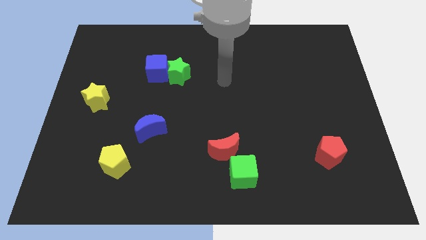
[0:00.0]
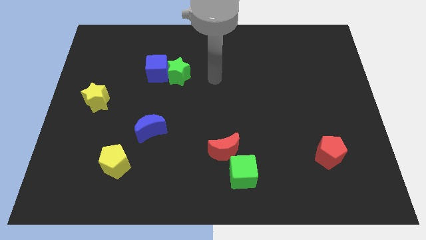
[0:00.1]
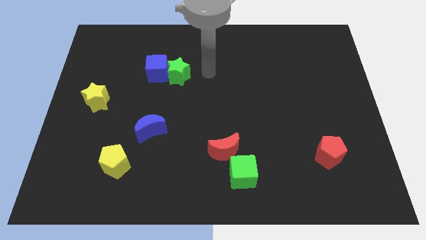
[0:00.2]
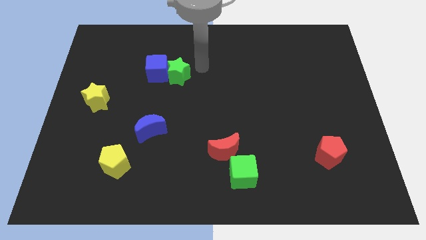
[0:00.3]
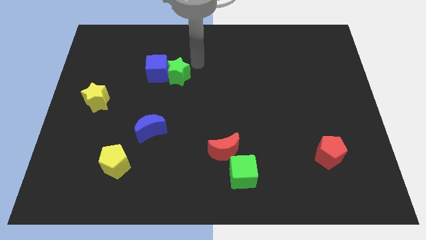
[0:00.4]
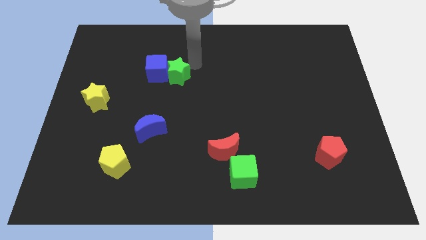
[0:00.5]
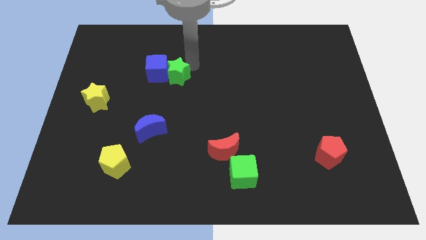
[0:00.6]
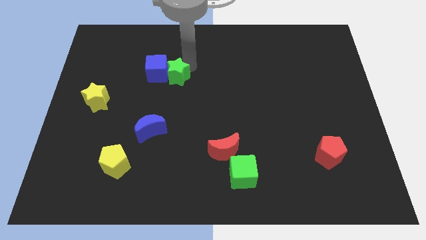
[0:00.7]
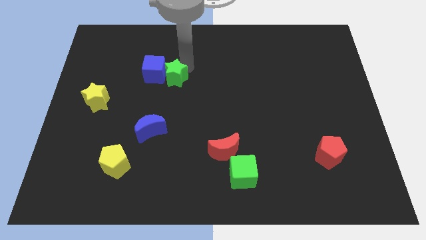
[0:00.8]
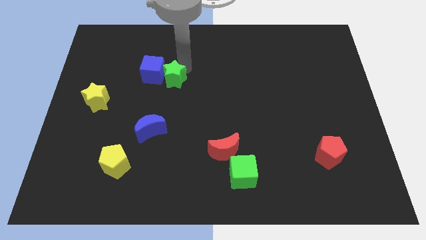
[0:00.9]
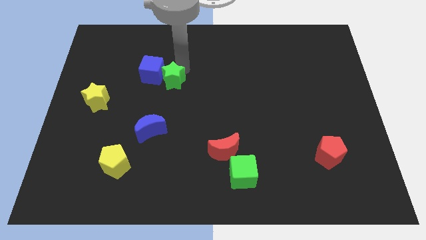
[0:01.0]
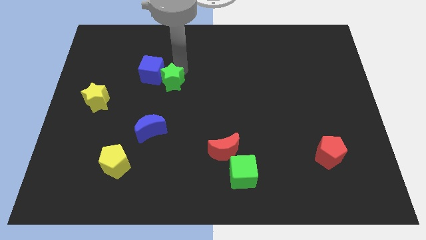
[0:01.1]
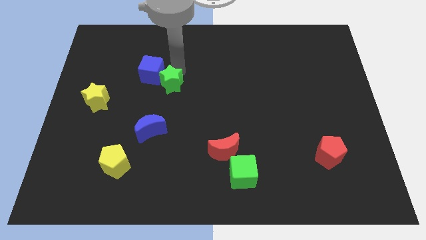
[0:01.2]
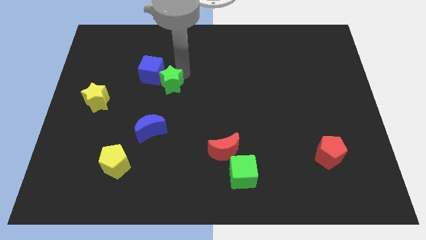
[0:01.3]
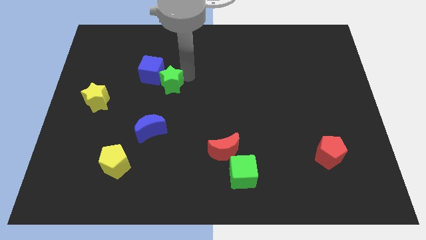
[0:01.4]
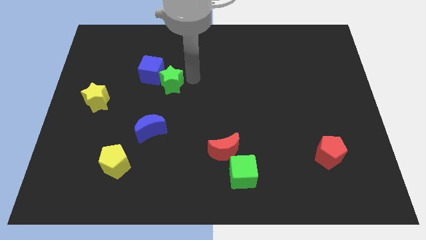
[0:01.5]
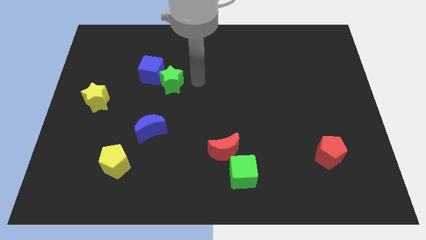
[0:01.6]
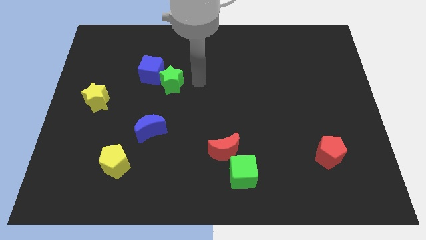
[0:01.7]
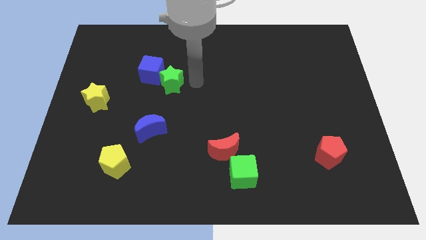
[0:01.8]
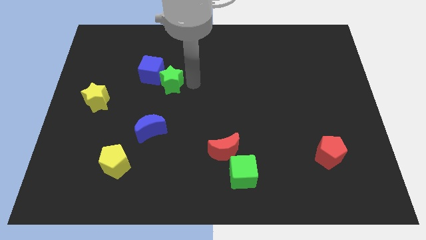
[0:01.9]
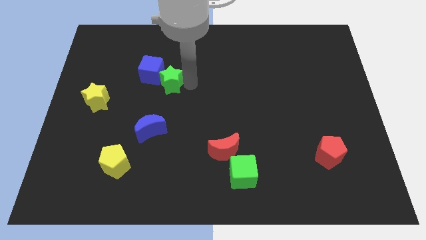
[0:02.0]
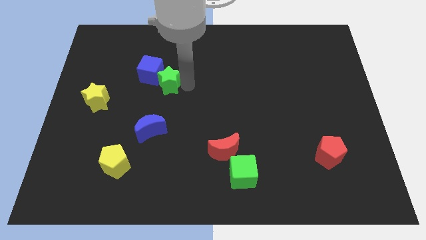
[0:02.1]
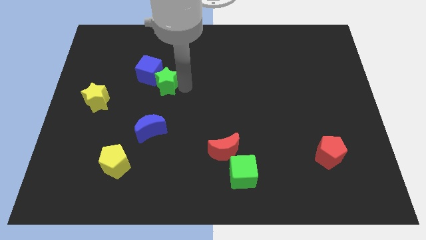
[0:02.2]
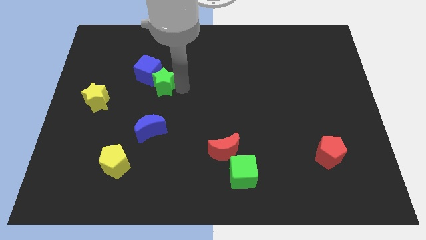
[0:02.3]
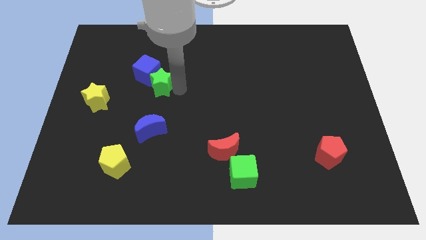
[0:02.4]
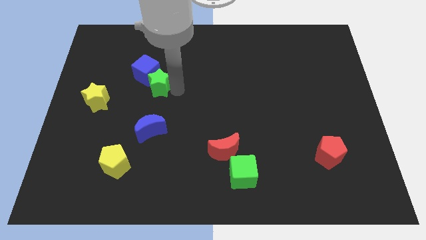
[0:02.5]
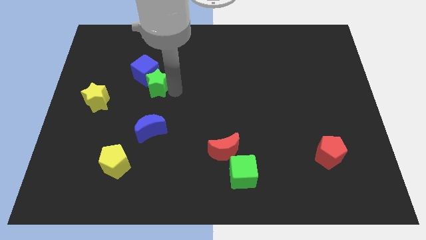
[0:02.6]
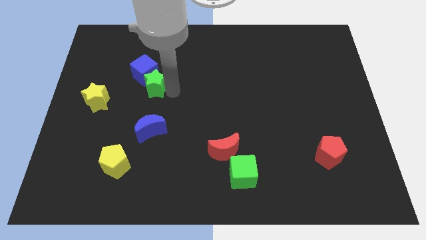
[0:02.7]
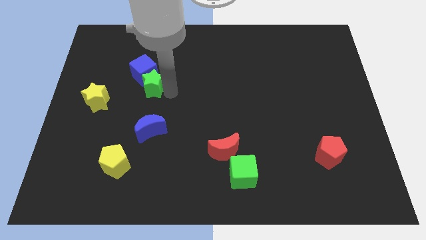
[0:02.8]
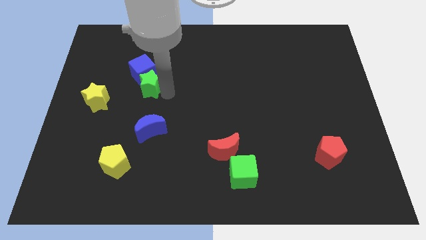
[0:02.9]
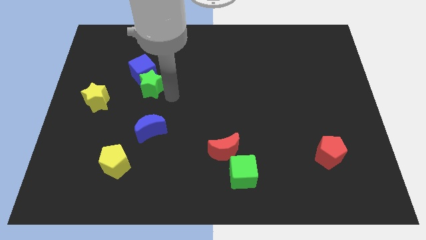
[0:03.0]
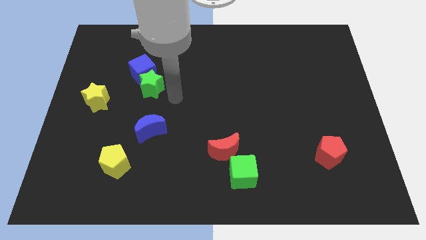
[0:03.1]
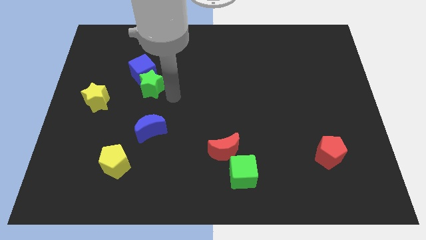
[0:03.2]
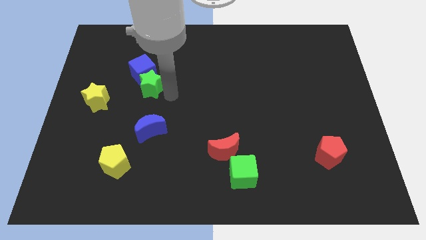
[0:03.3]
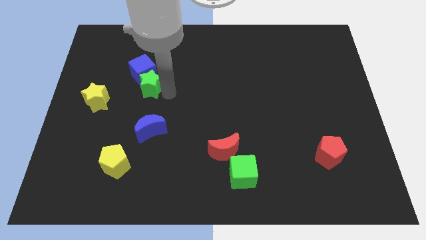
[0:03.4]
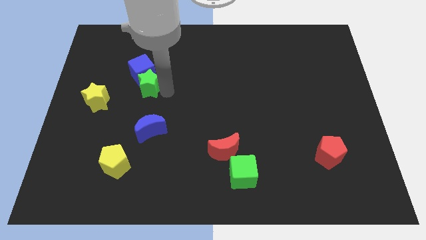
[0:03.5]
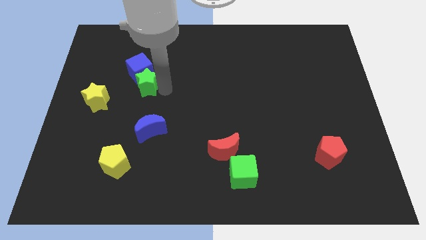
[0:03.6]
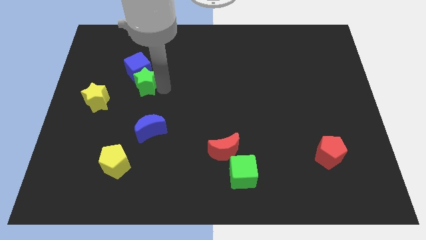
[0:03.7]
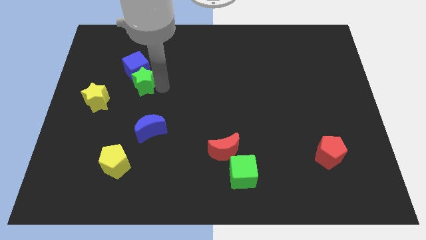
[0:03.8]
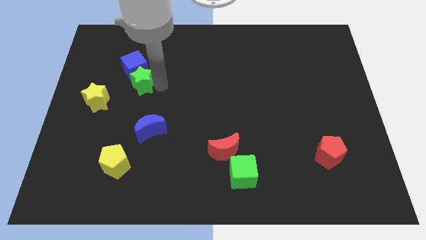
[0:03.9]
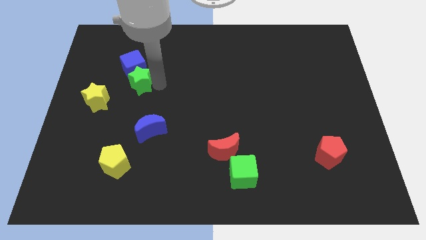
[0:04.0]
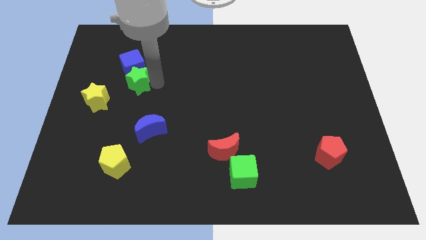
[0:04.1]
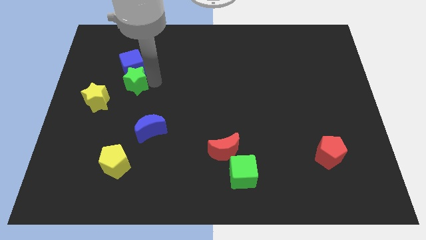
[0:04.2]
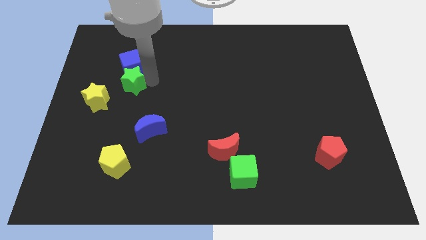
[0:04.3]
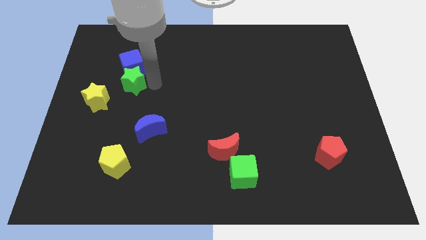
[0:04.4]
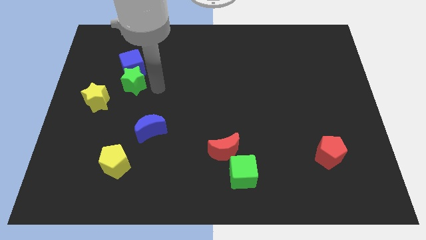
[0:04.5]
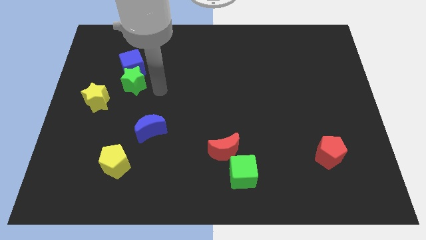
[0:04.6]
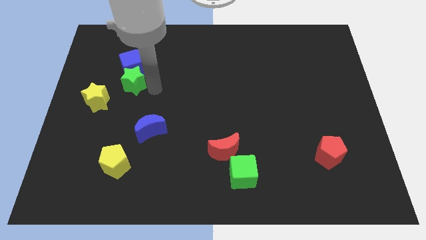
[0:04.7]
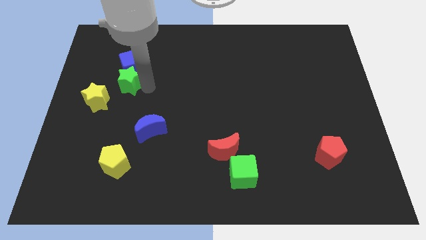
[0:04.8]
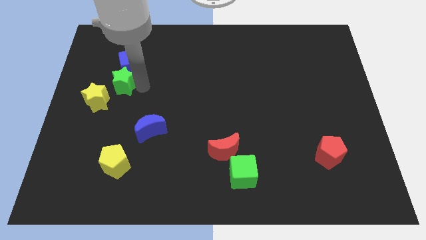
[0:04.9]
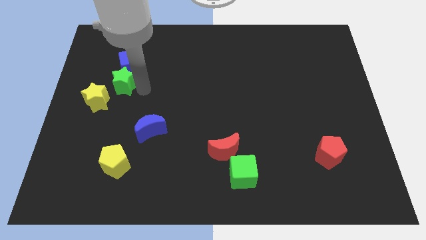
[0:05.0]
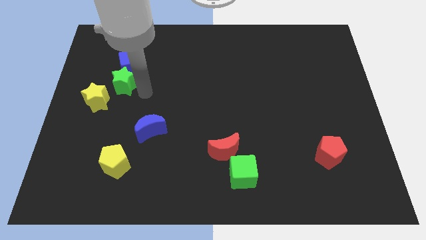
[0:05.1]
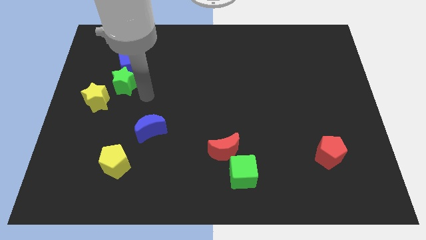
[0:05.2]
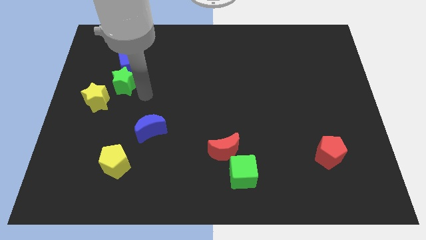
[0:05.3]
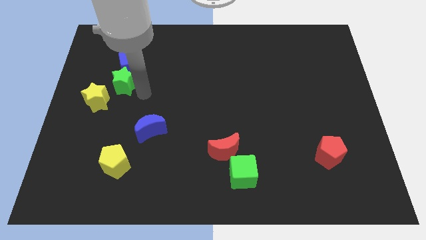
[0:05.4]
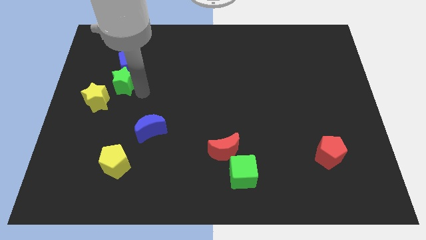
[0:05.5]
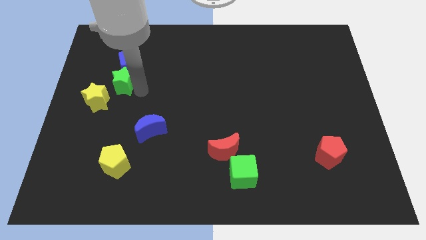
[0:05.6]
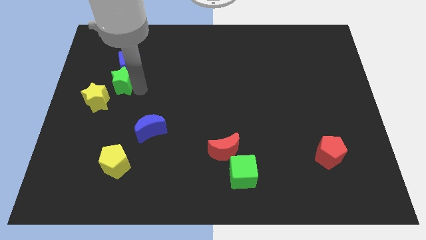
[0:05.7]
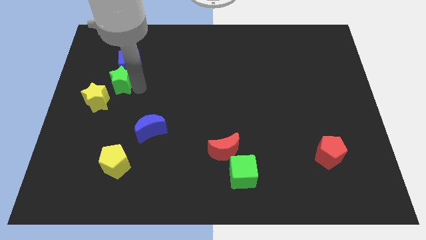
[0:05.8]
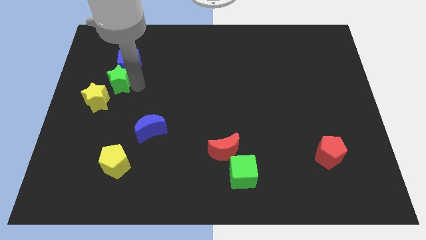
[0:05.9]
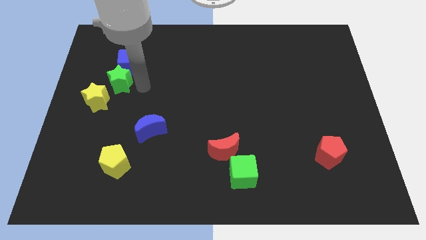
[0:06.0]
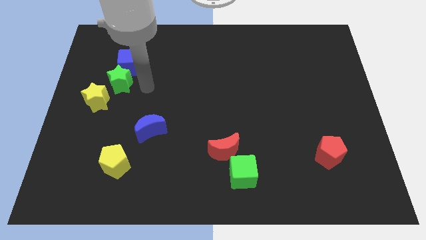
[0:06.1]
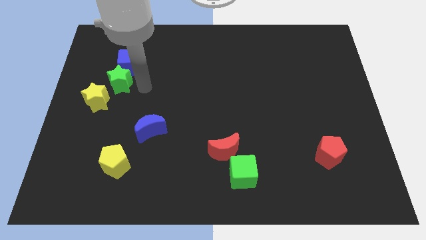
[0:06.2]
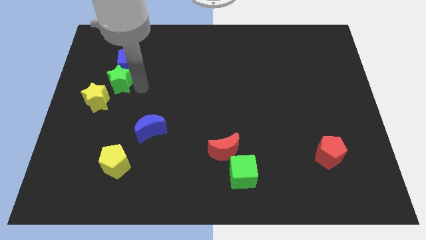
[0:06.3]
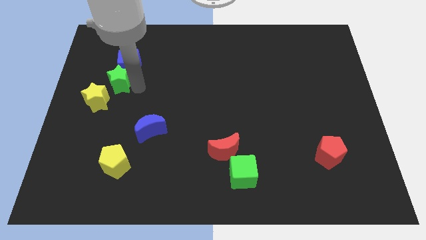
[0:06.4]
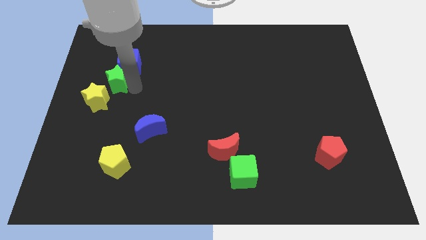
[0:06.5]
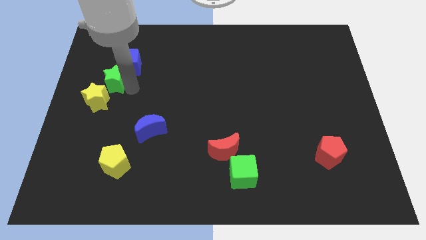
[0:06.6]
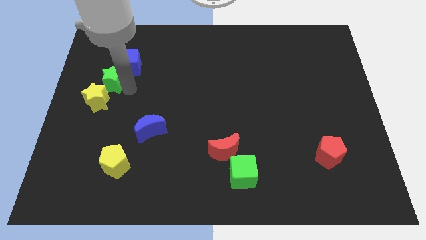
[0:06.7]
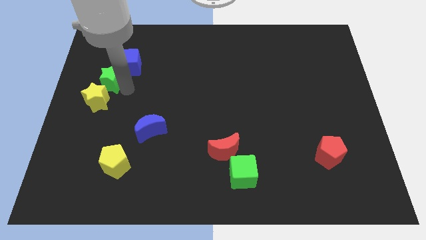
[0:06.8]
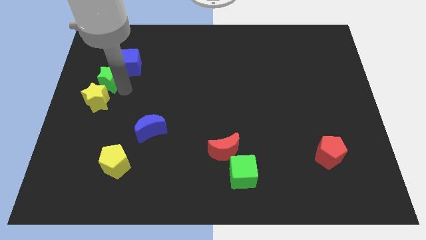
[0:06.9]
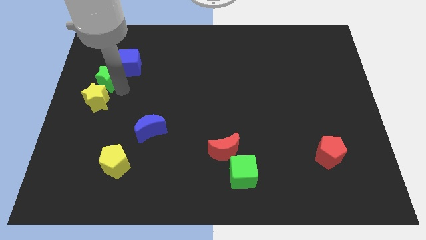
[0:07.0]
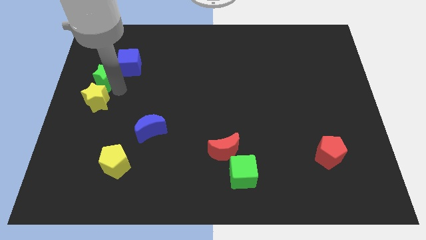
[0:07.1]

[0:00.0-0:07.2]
slide the green star to the left side of the board
